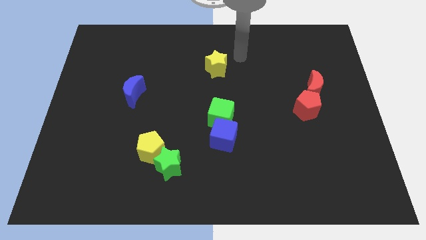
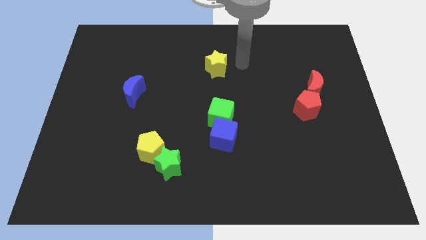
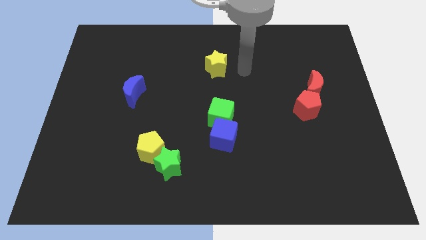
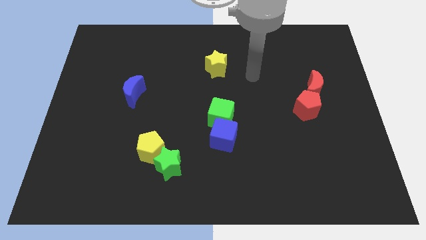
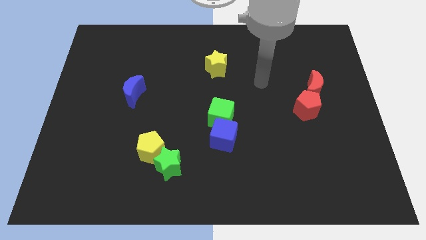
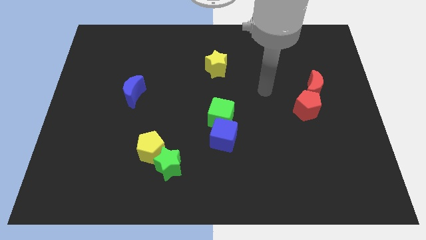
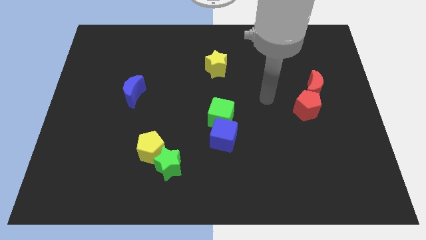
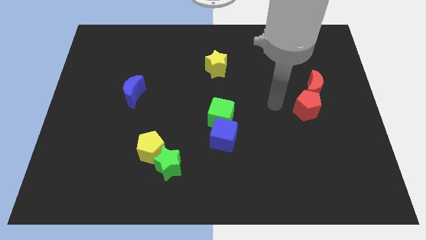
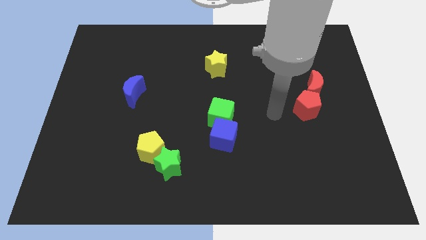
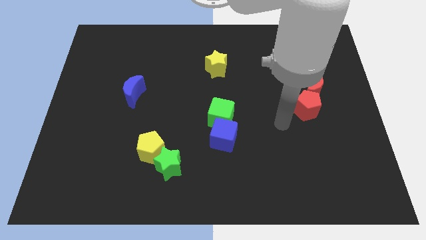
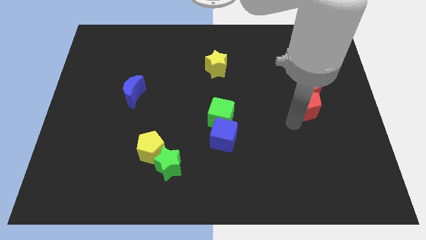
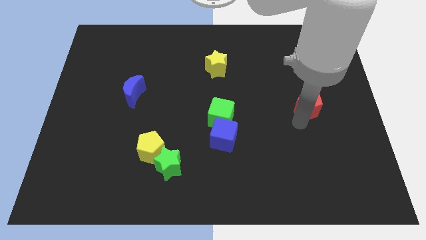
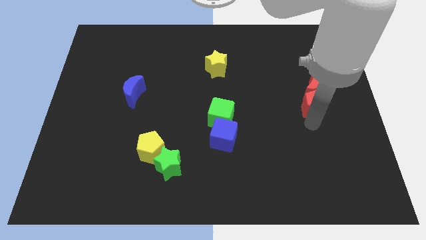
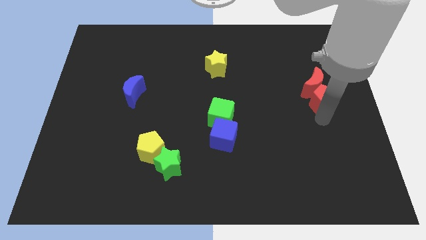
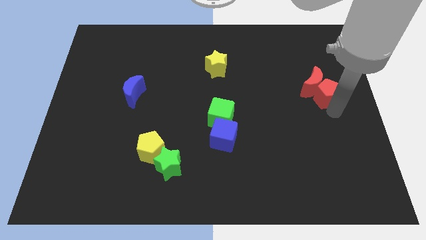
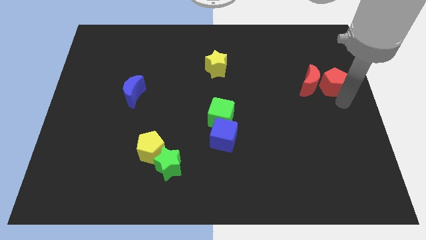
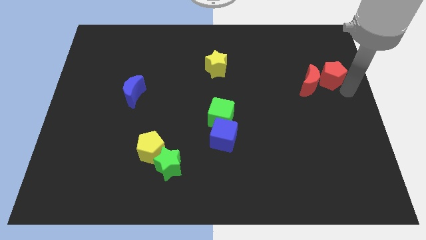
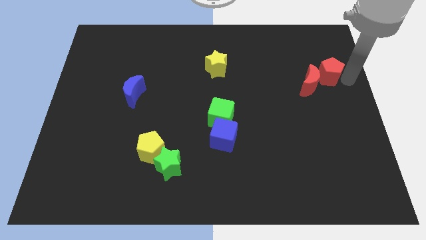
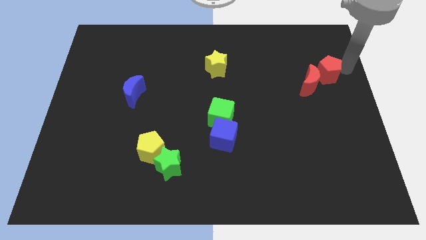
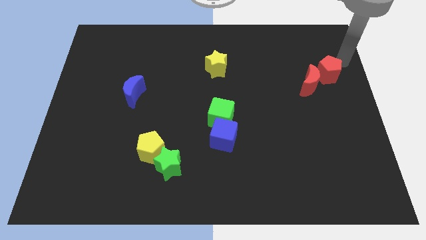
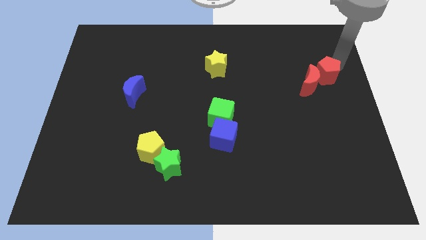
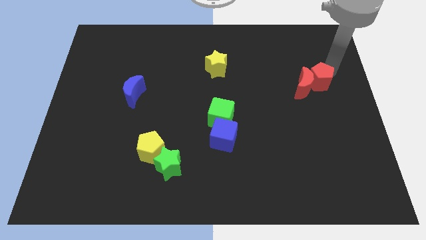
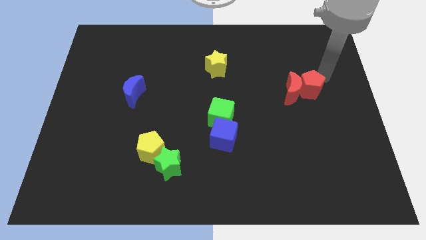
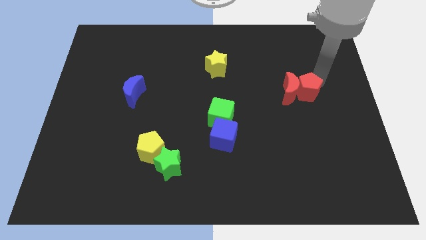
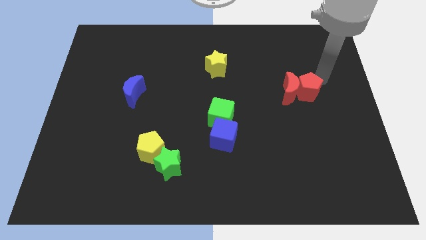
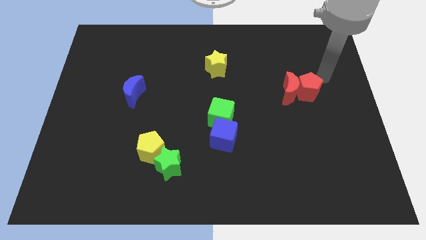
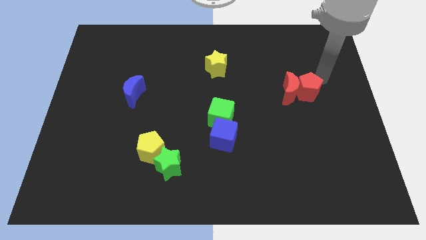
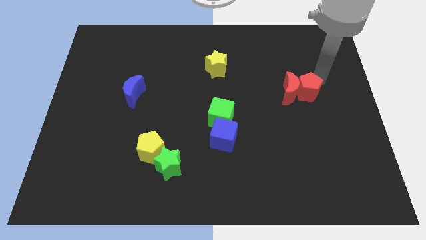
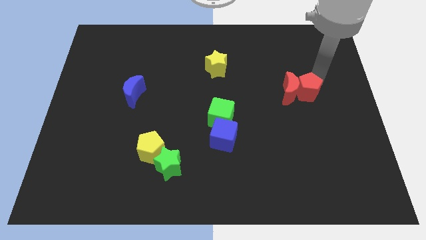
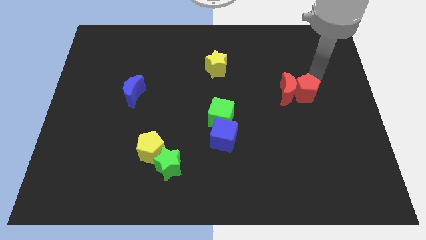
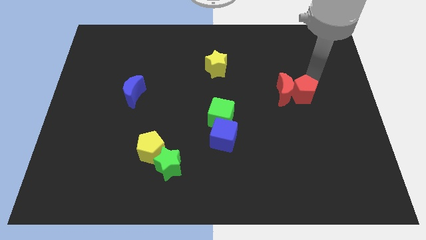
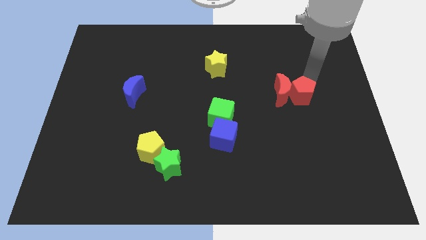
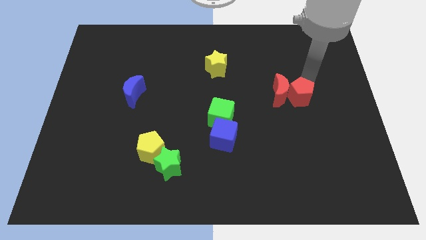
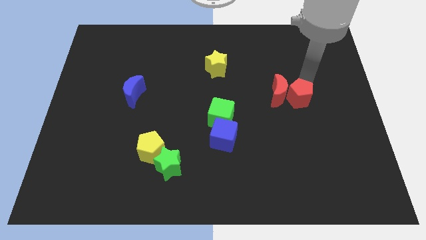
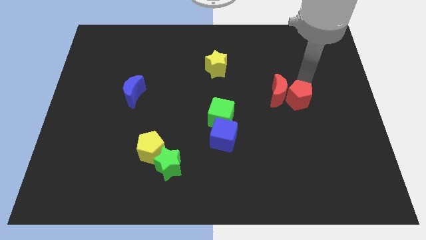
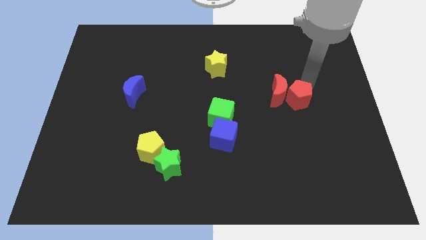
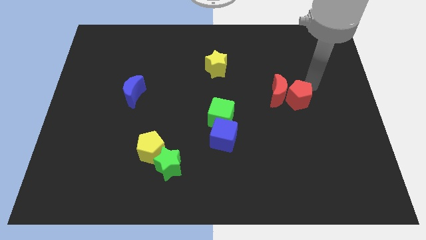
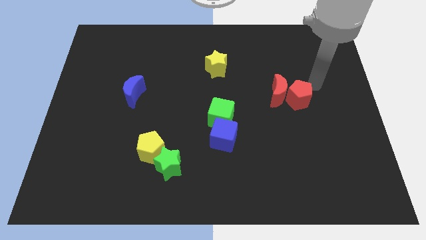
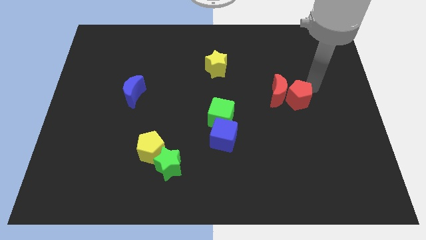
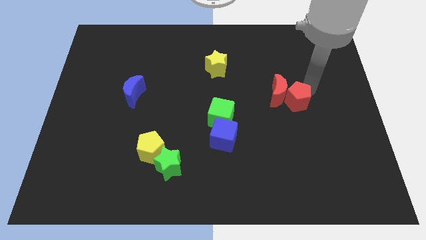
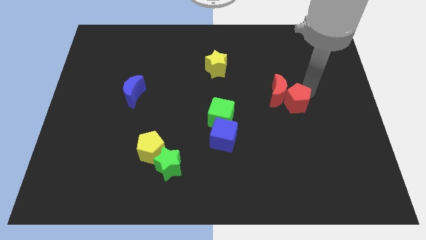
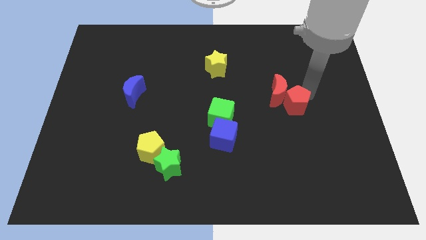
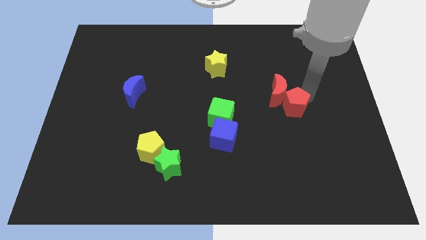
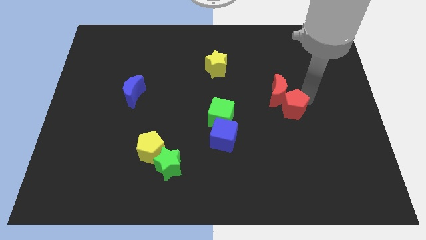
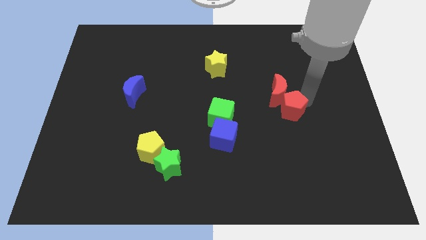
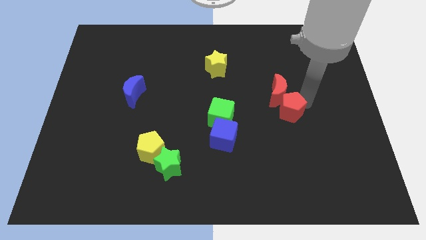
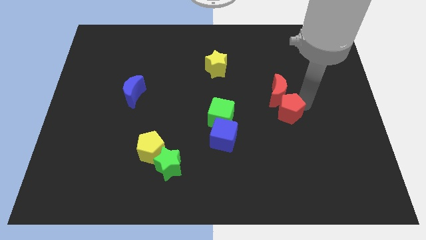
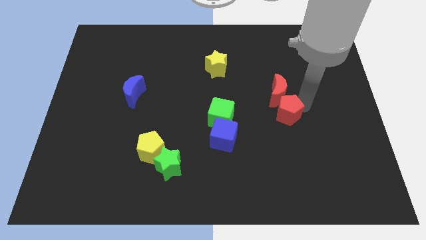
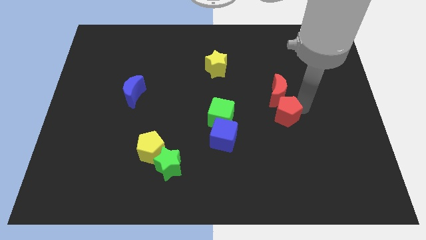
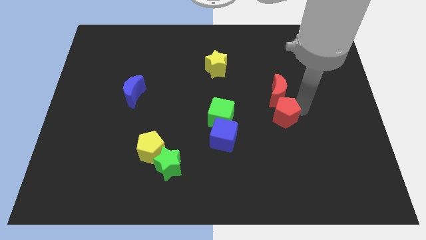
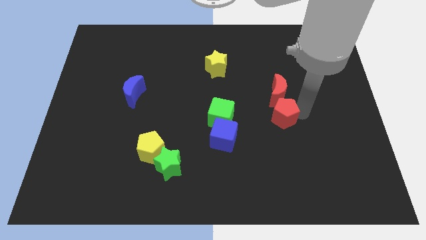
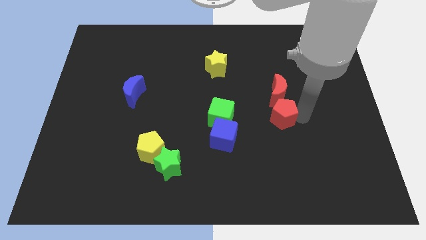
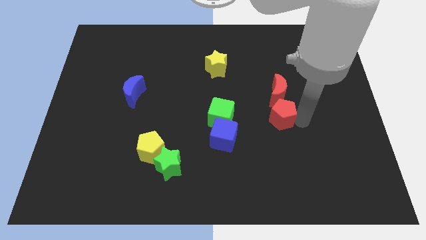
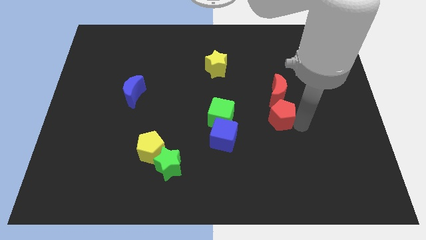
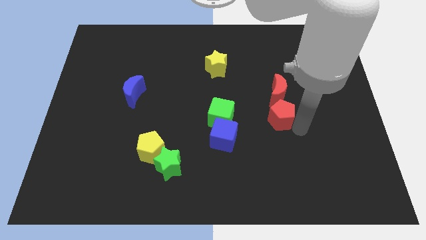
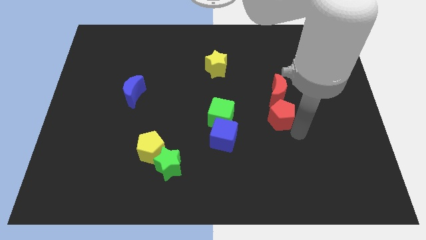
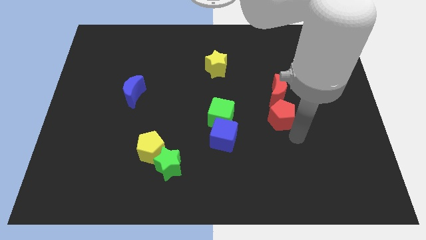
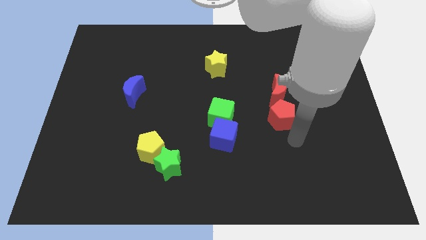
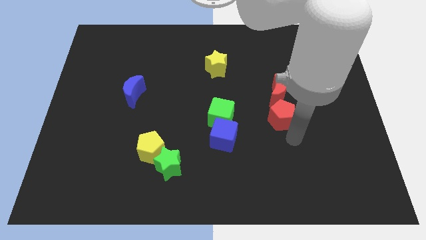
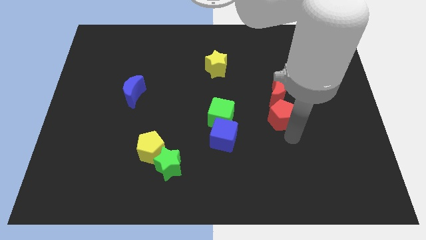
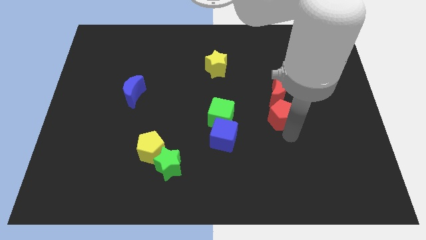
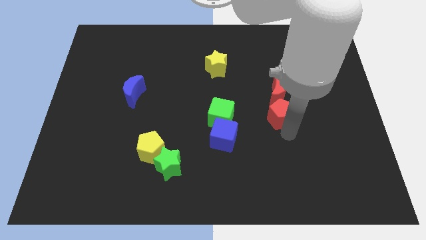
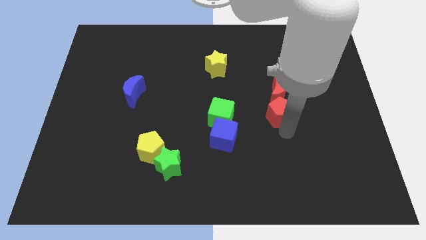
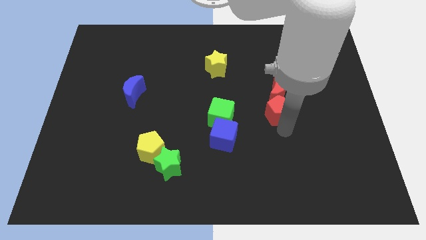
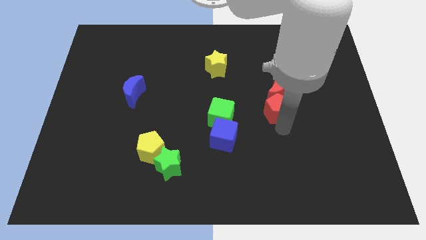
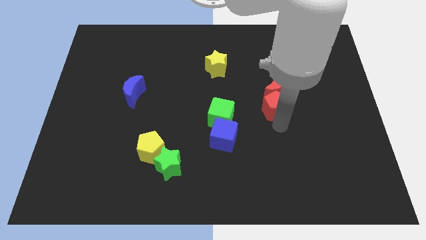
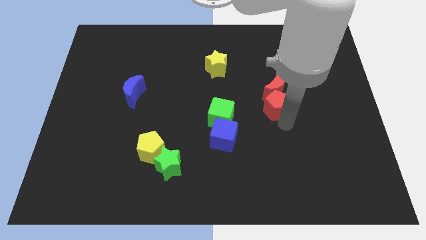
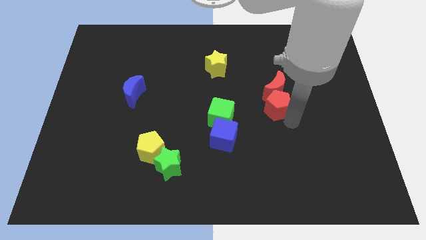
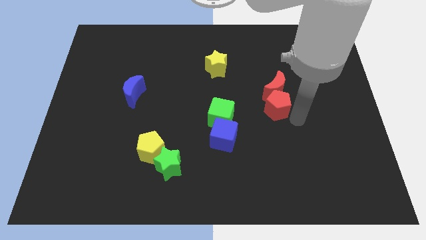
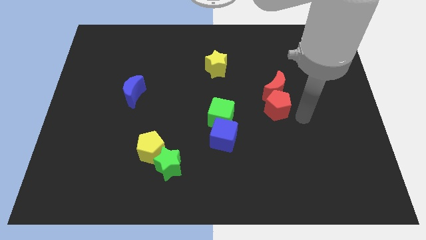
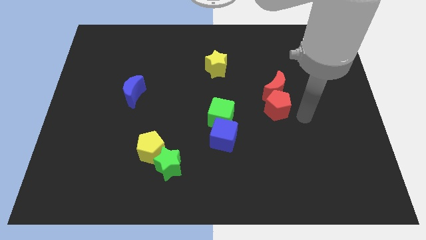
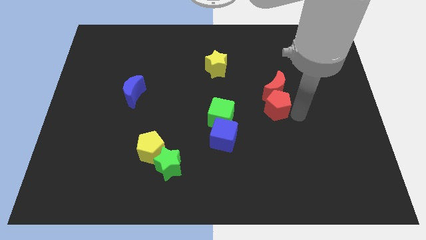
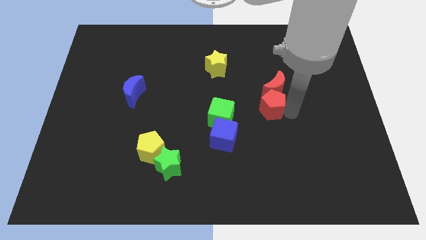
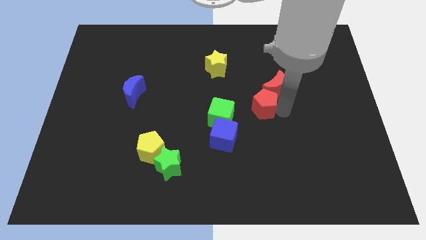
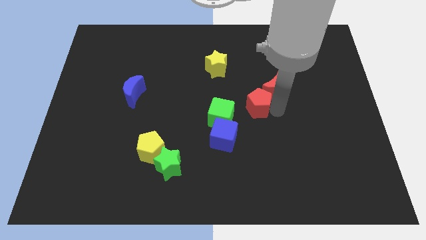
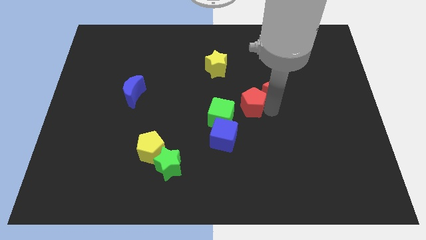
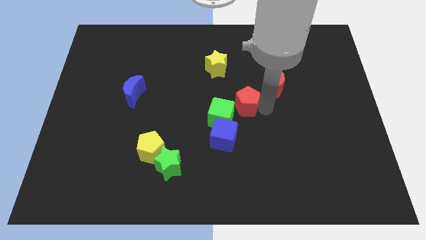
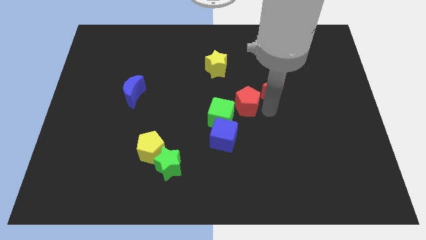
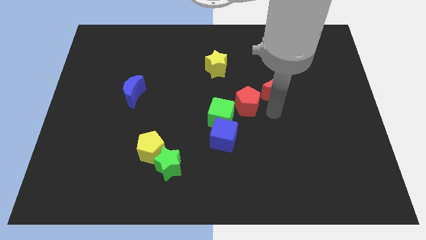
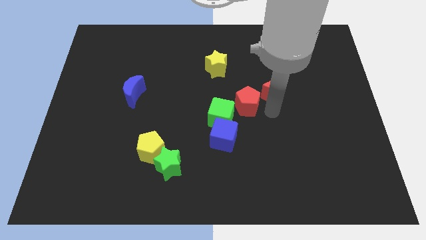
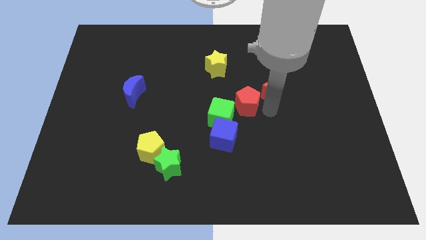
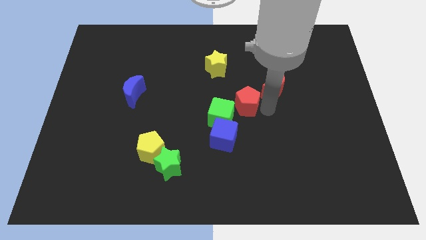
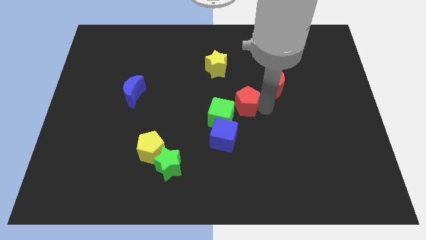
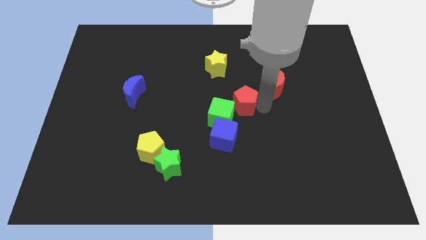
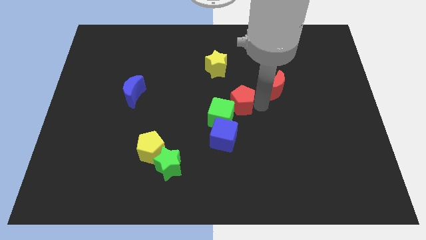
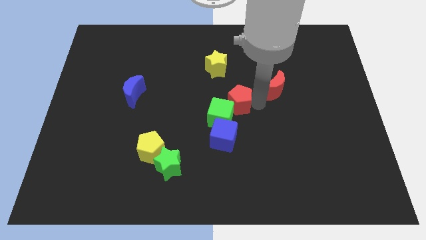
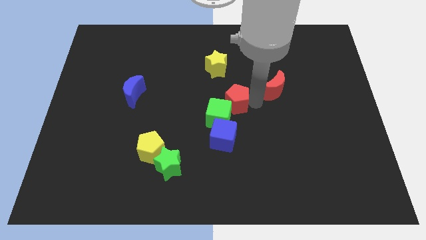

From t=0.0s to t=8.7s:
slide the red pentagon below the yellow star
